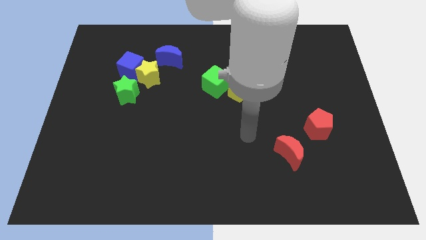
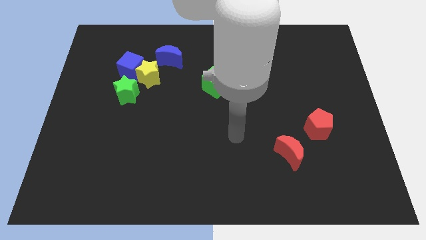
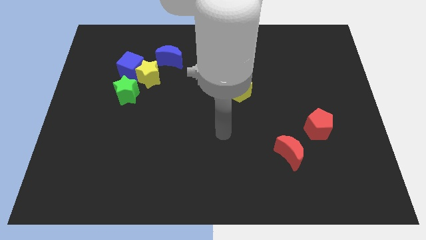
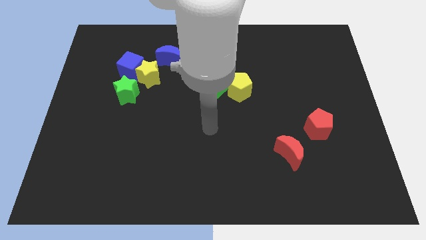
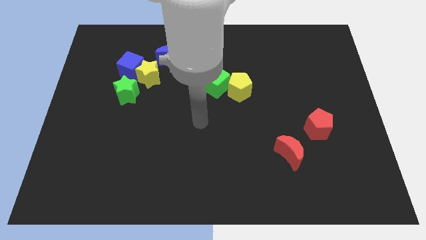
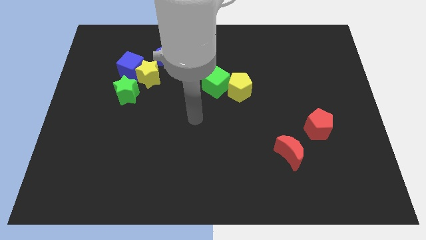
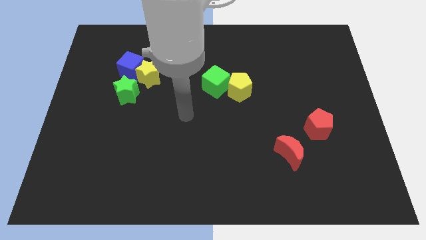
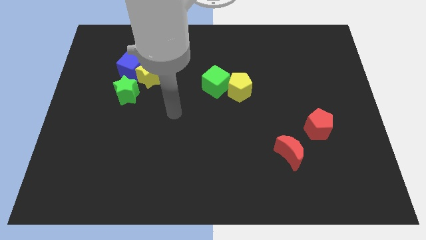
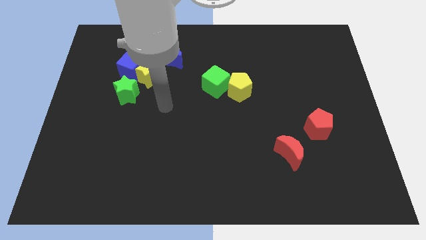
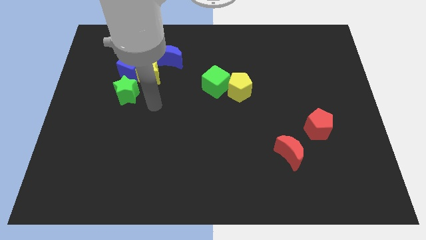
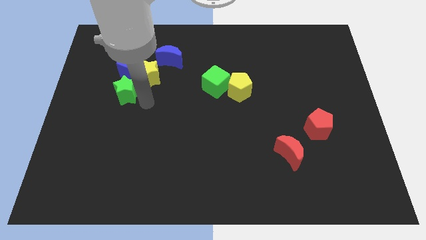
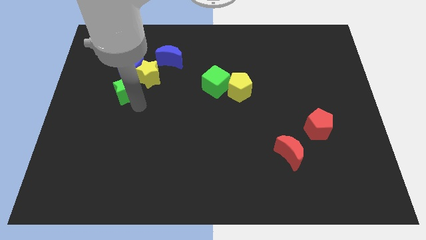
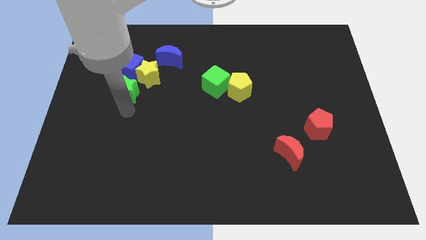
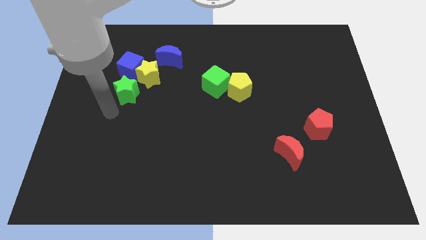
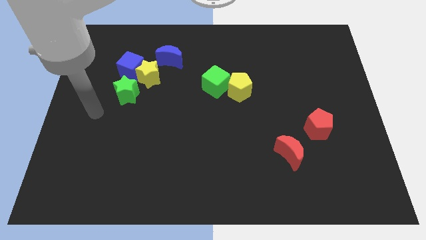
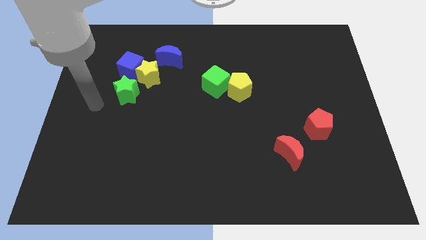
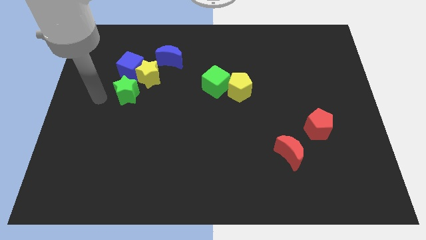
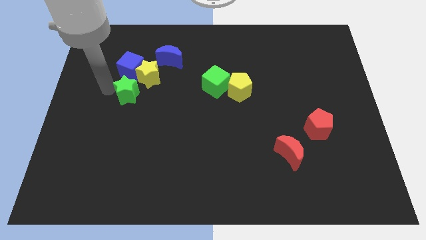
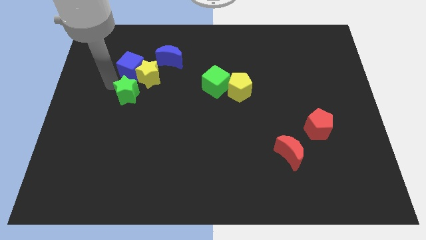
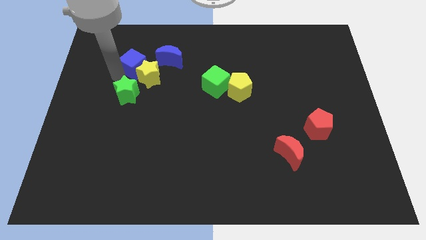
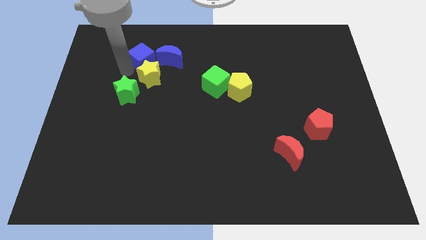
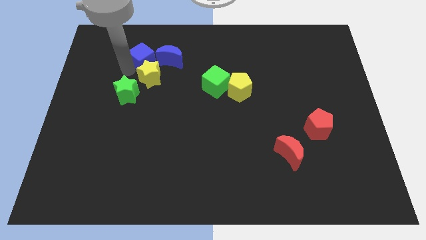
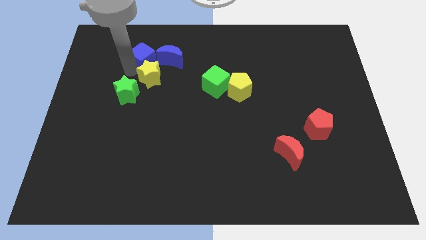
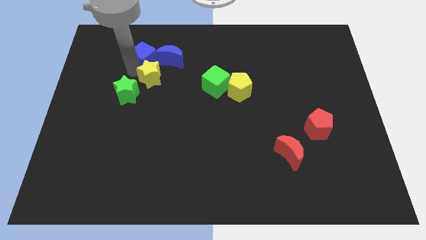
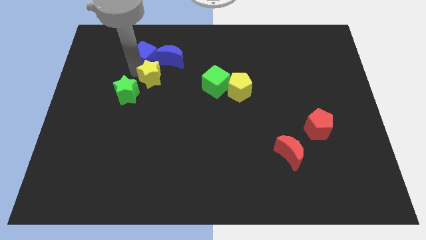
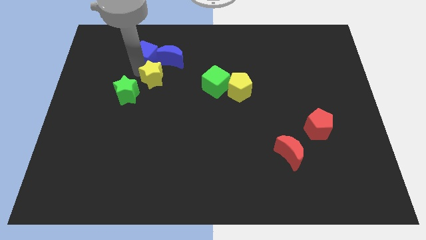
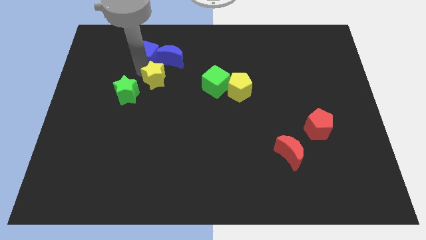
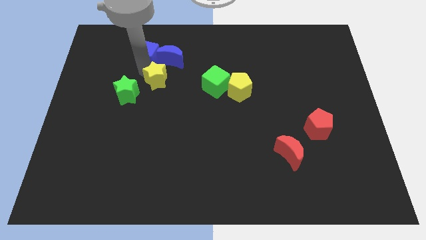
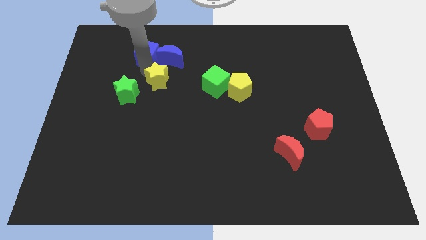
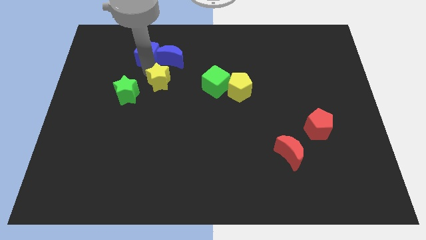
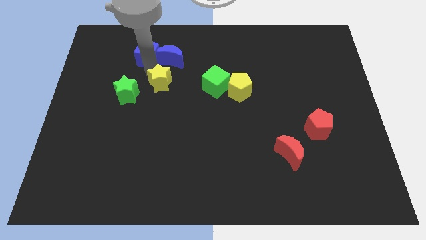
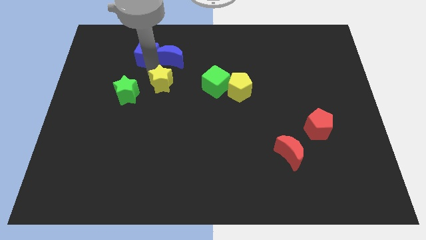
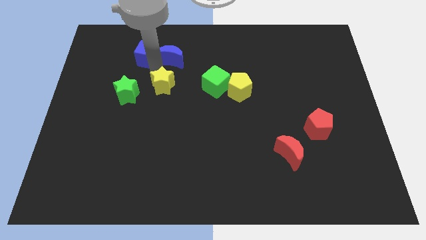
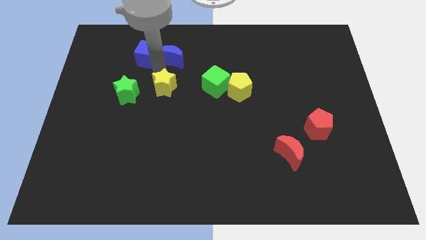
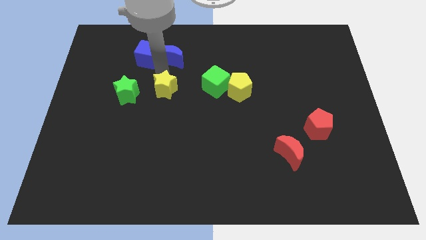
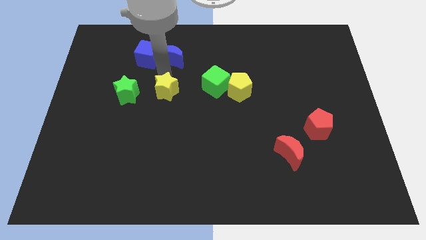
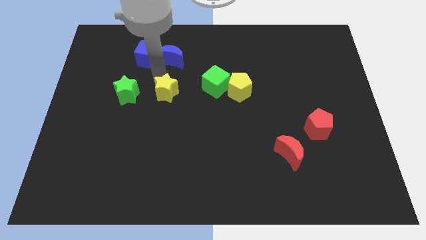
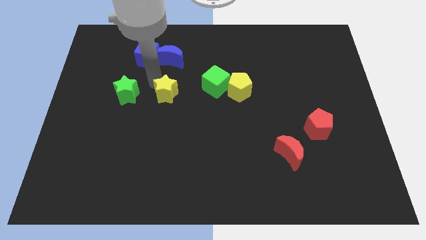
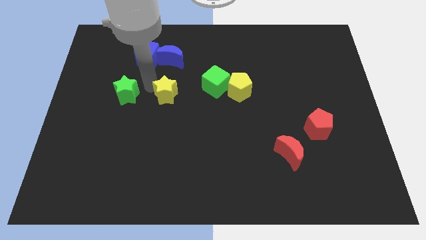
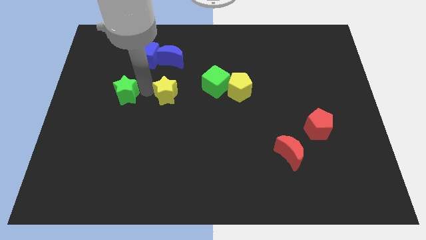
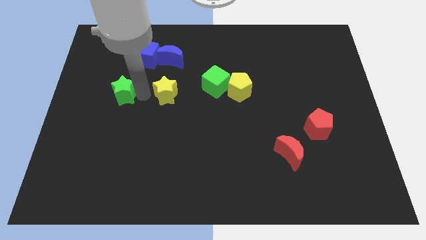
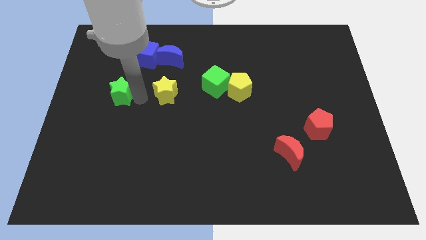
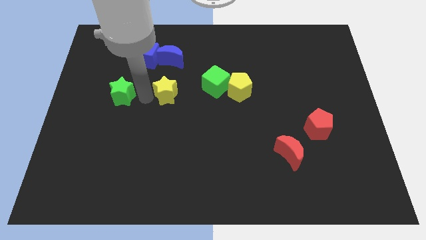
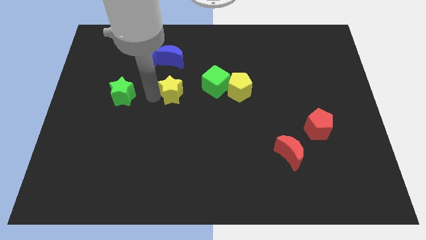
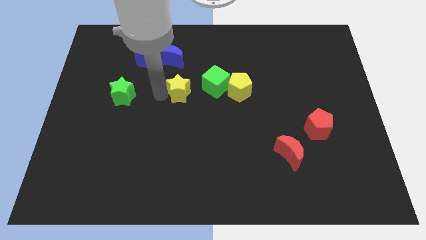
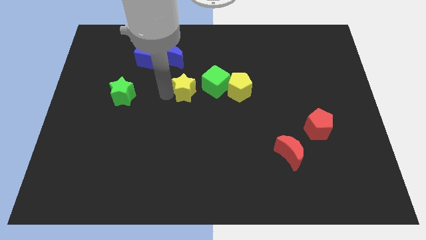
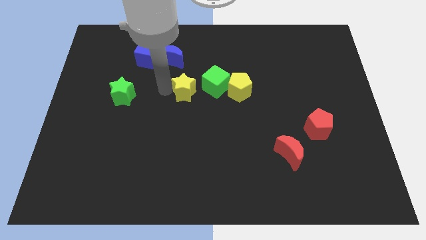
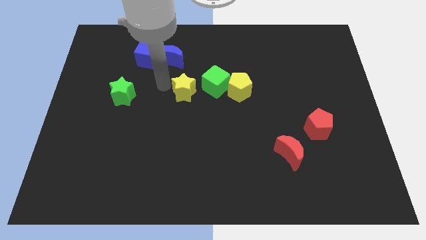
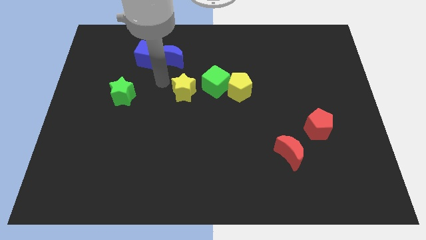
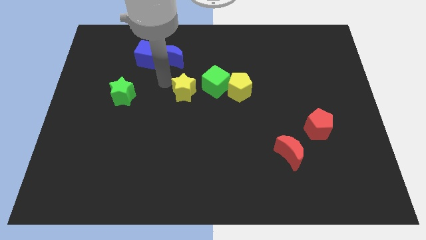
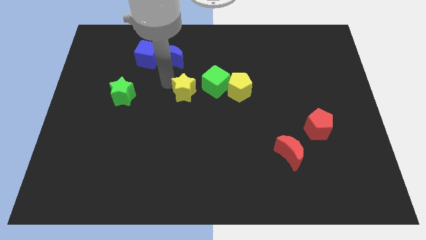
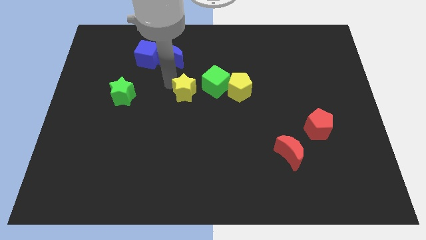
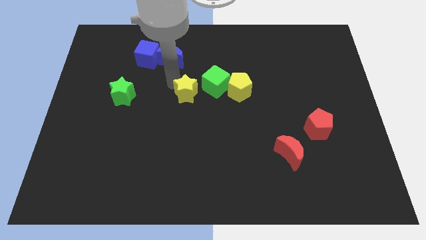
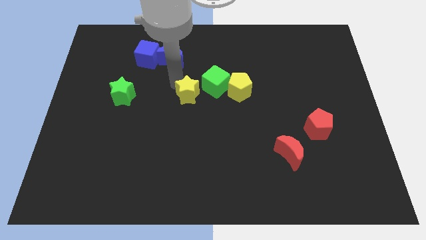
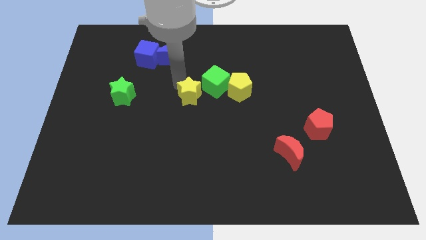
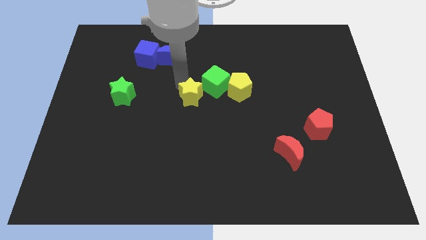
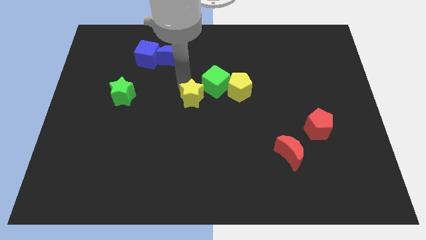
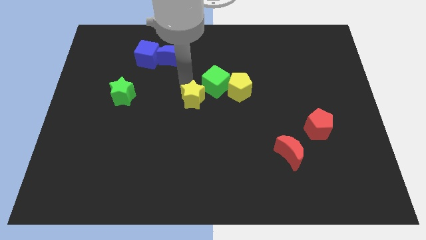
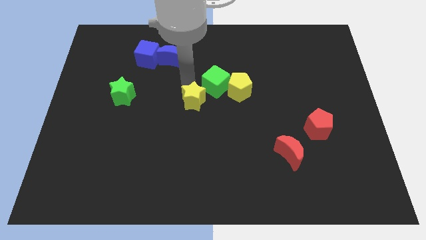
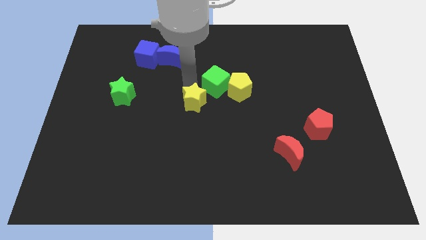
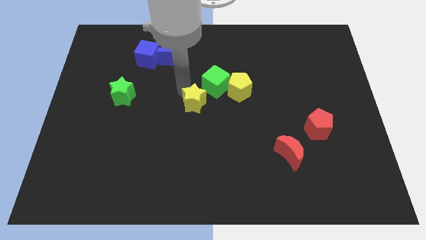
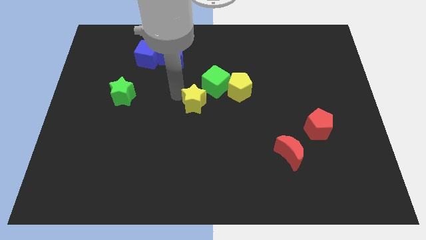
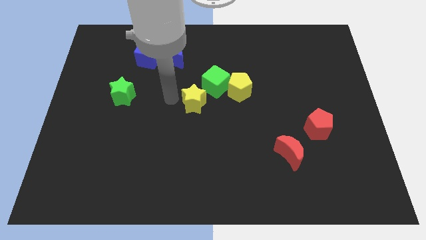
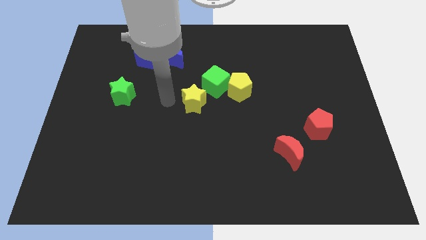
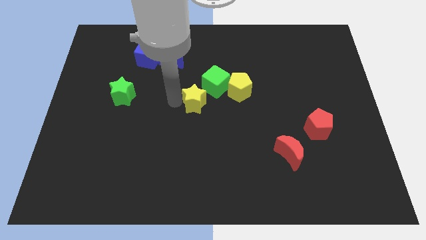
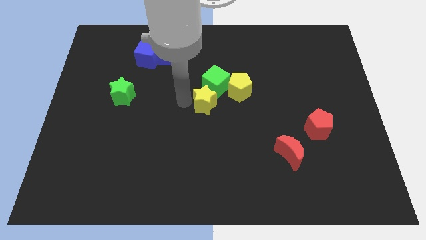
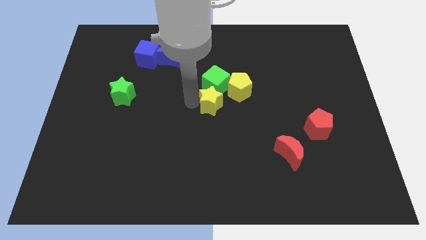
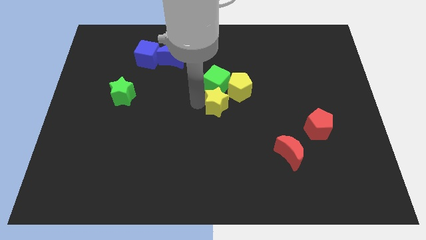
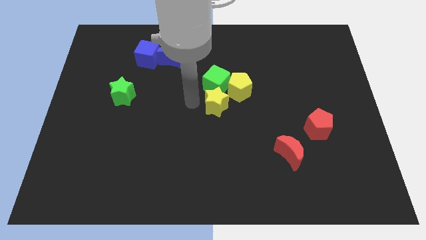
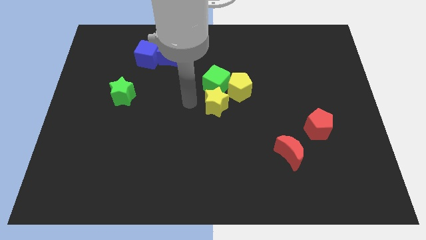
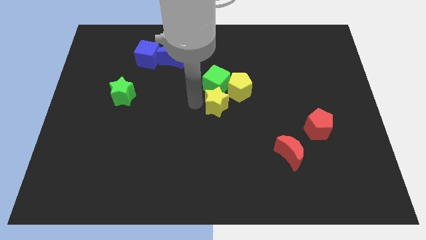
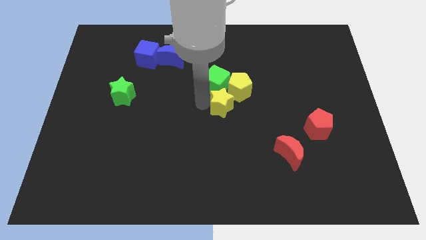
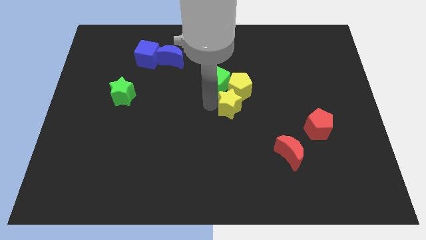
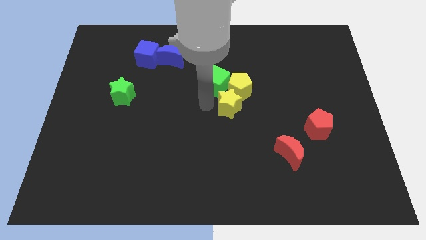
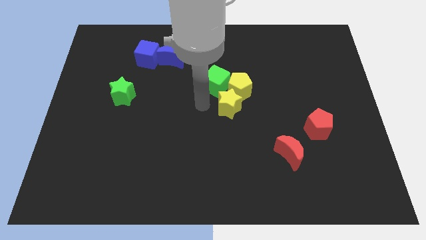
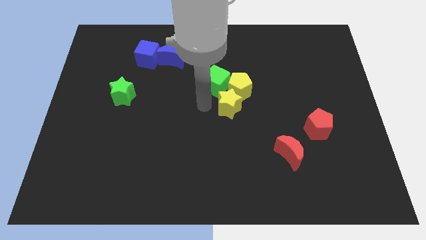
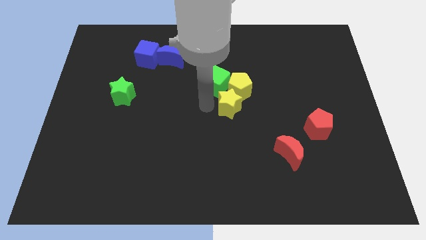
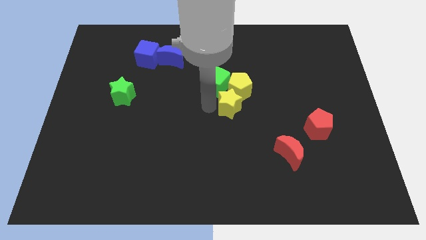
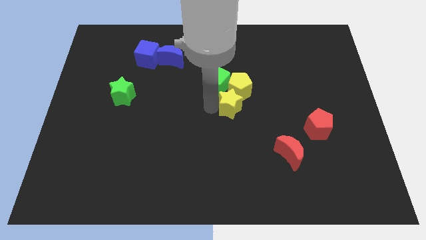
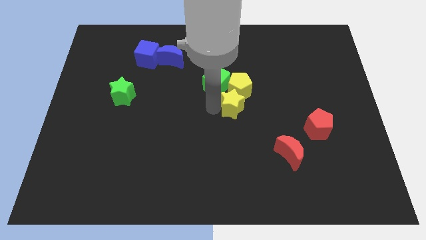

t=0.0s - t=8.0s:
push the yellow star to the bottom right side of the yellow pentagon
